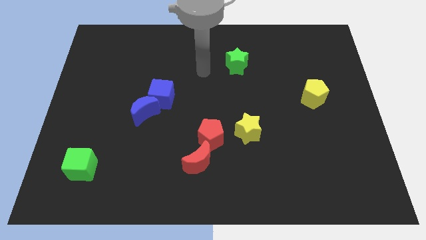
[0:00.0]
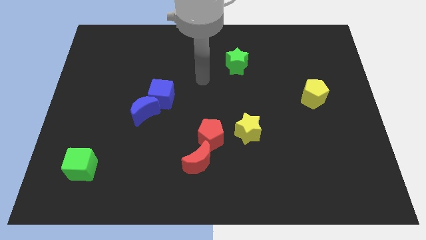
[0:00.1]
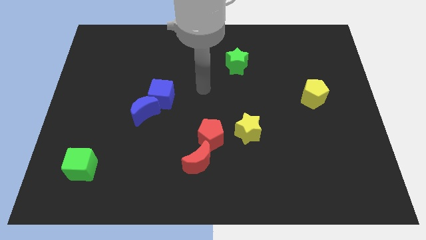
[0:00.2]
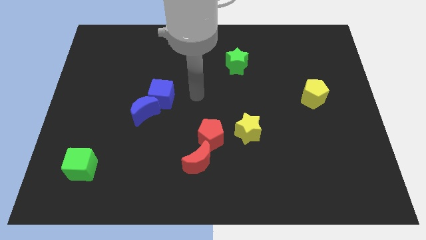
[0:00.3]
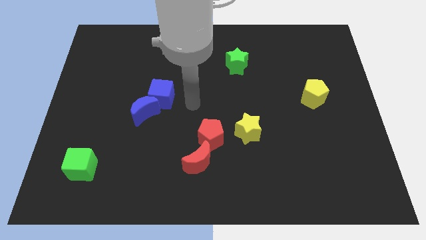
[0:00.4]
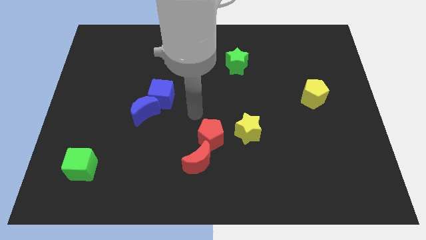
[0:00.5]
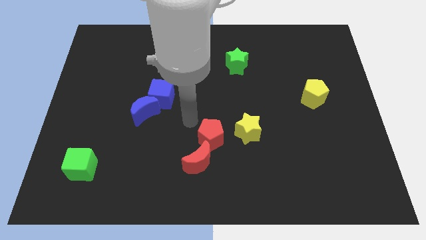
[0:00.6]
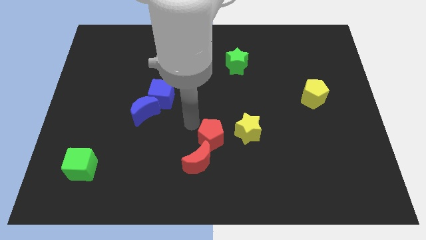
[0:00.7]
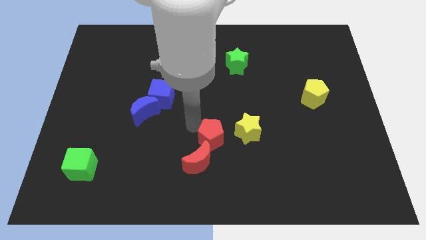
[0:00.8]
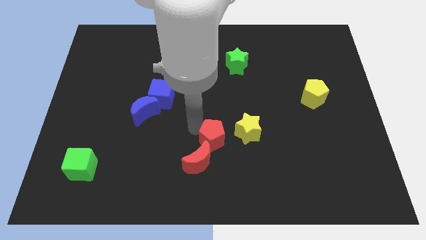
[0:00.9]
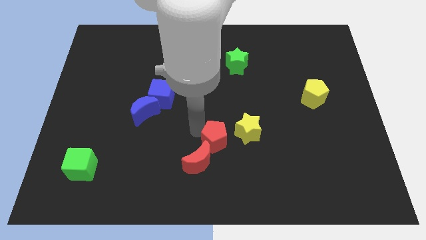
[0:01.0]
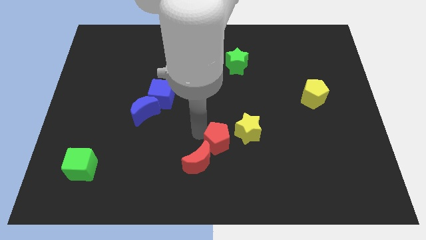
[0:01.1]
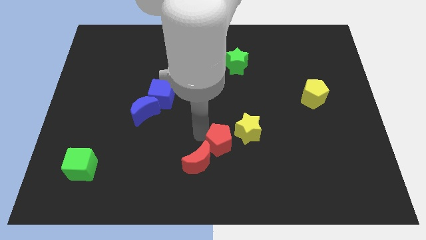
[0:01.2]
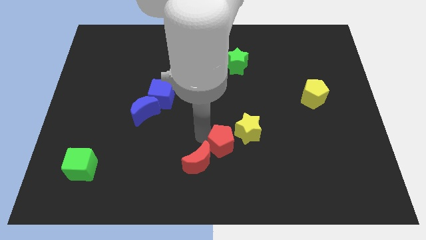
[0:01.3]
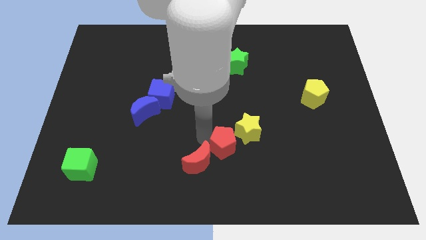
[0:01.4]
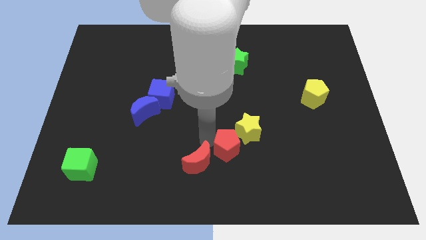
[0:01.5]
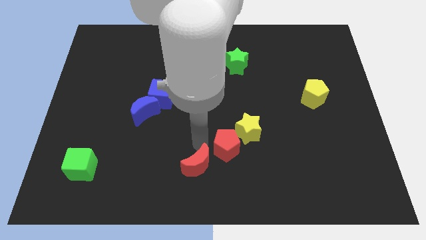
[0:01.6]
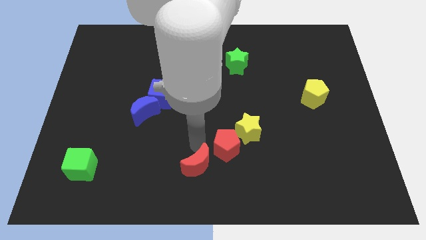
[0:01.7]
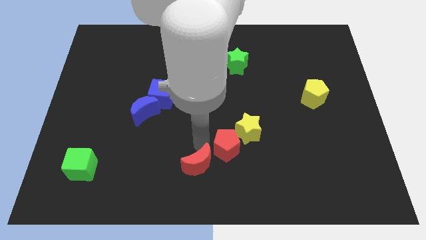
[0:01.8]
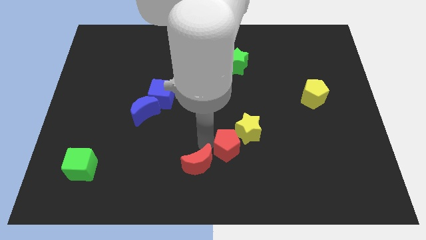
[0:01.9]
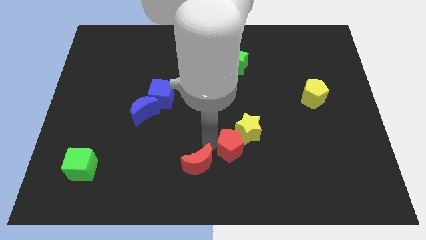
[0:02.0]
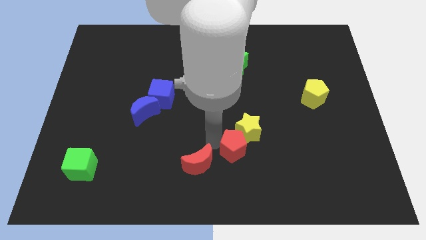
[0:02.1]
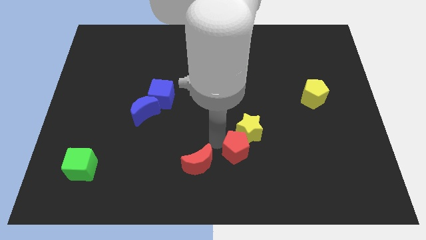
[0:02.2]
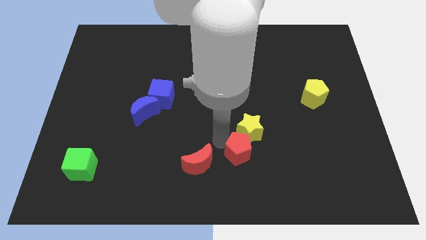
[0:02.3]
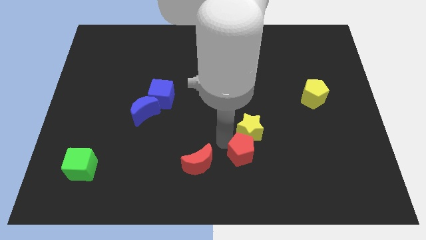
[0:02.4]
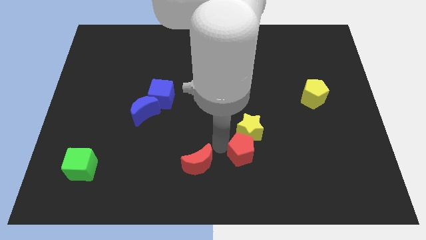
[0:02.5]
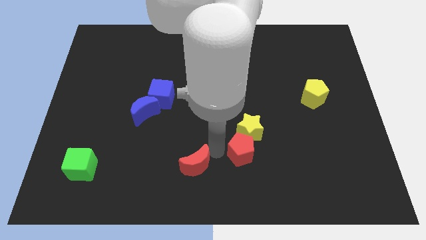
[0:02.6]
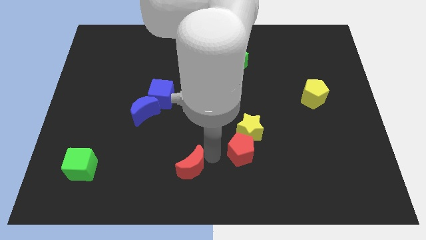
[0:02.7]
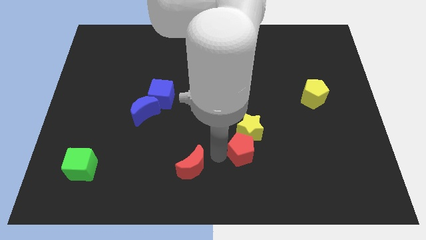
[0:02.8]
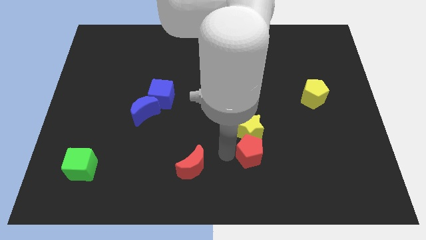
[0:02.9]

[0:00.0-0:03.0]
slightly slide the red pentagon right

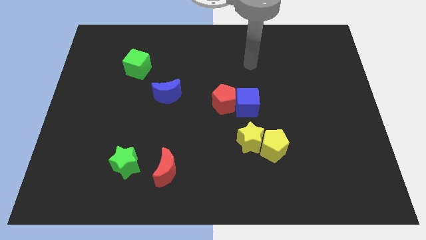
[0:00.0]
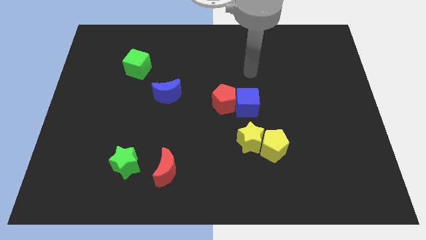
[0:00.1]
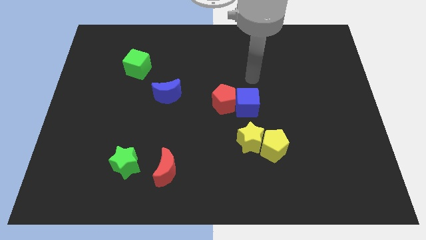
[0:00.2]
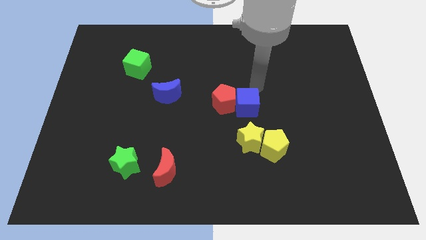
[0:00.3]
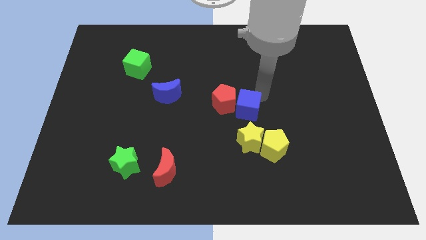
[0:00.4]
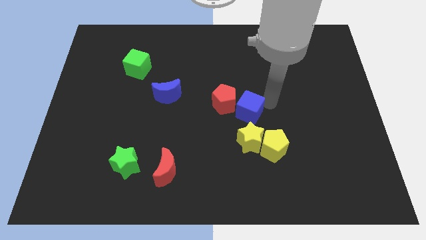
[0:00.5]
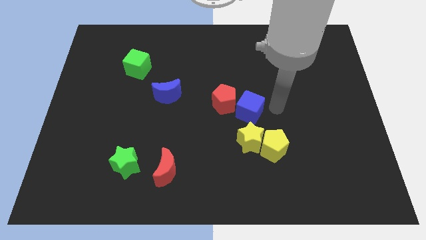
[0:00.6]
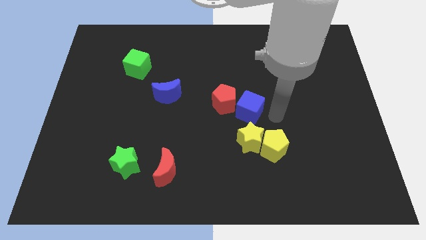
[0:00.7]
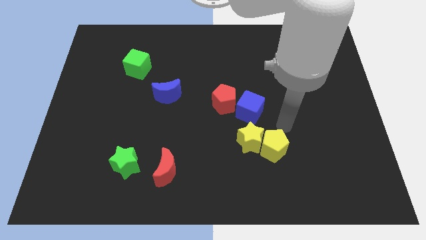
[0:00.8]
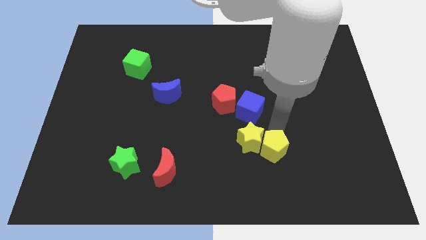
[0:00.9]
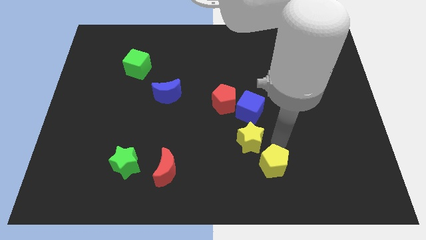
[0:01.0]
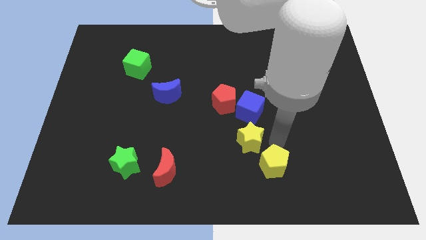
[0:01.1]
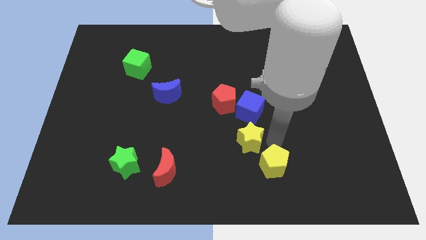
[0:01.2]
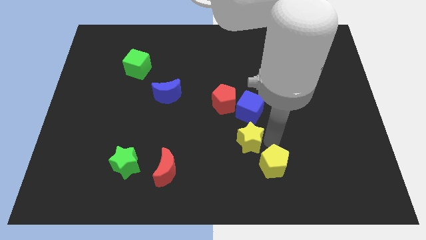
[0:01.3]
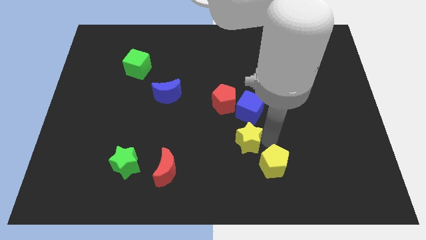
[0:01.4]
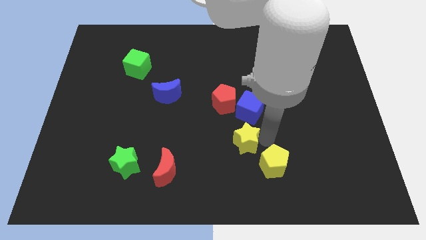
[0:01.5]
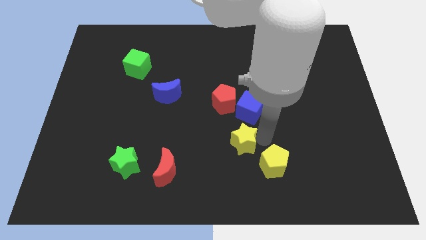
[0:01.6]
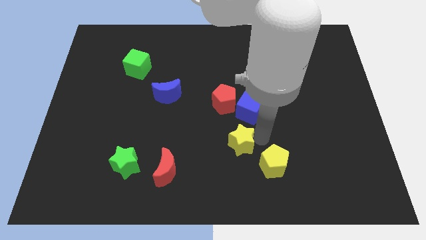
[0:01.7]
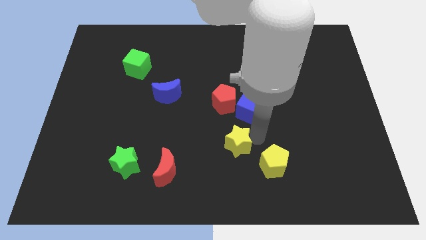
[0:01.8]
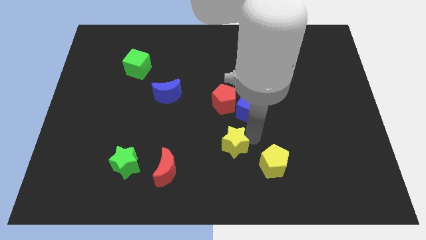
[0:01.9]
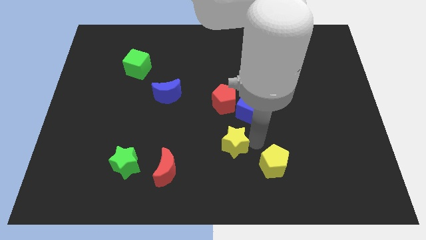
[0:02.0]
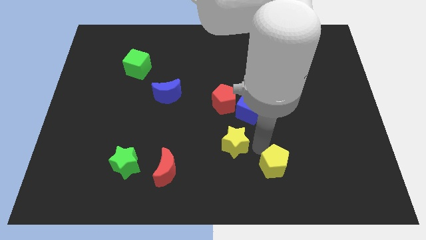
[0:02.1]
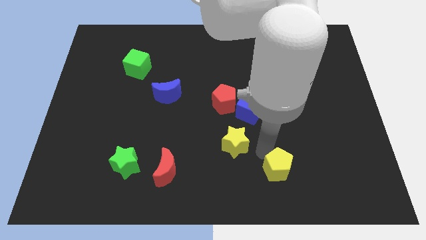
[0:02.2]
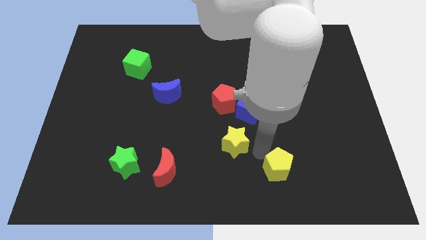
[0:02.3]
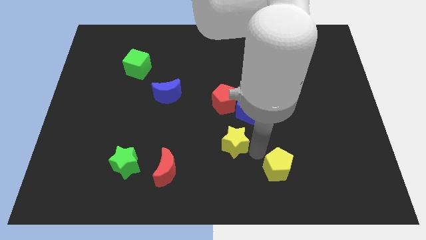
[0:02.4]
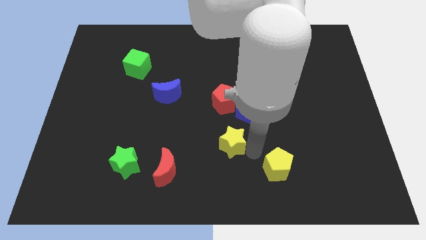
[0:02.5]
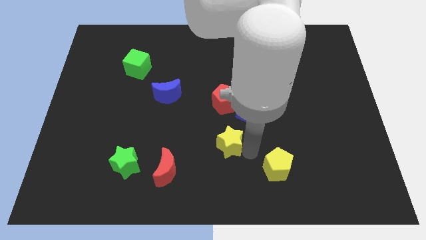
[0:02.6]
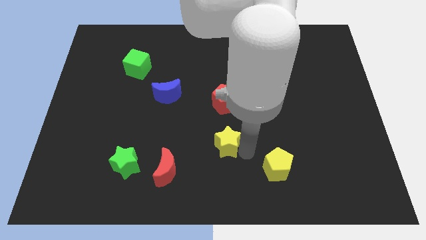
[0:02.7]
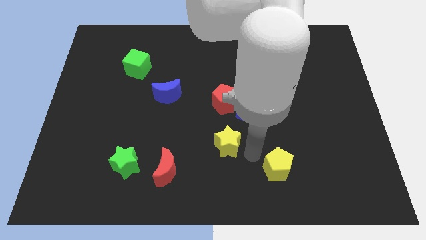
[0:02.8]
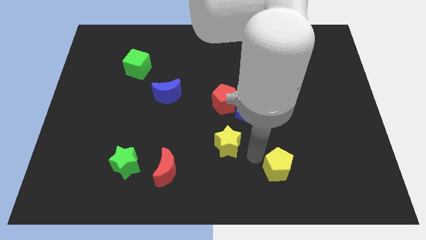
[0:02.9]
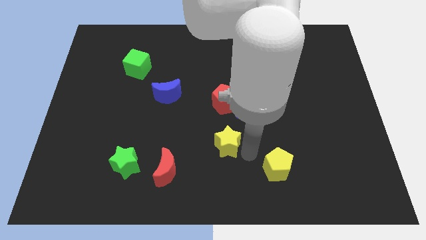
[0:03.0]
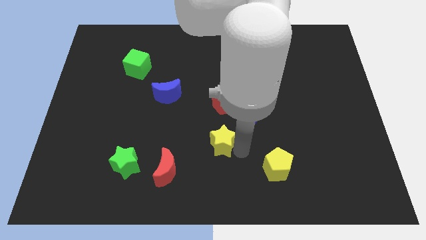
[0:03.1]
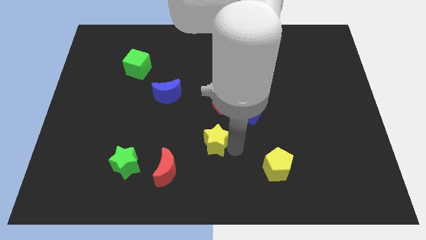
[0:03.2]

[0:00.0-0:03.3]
move the yellow star slightly to the left

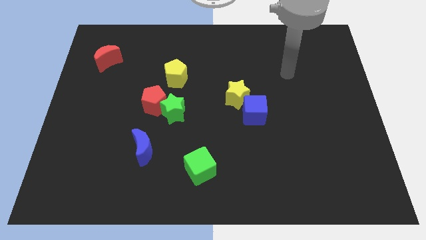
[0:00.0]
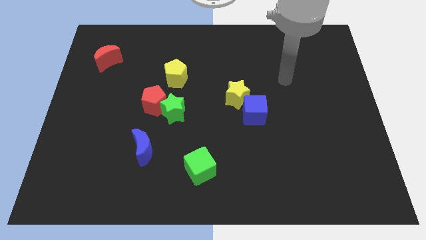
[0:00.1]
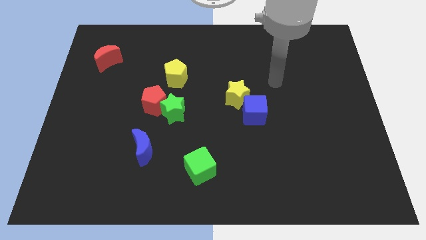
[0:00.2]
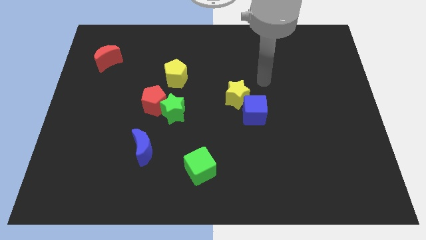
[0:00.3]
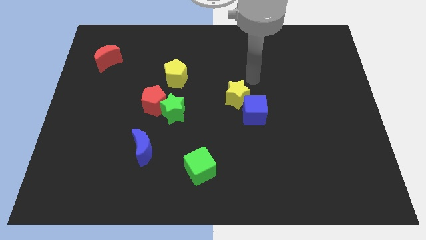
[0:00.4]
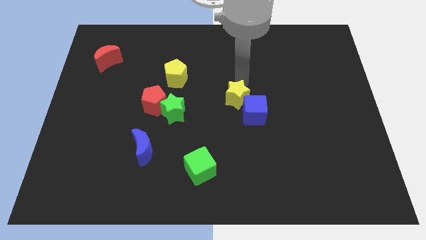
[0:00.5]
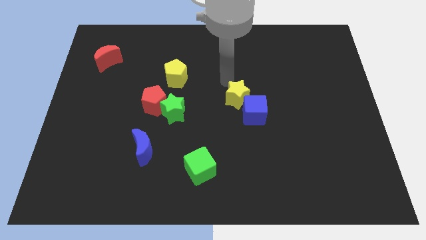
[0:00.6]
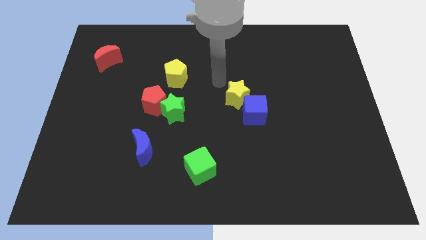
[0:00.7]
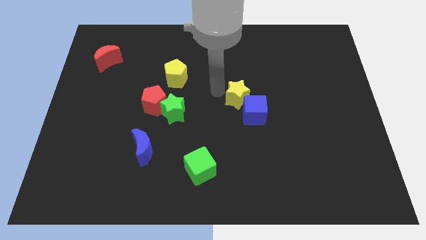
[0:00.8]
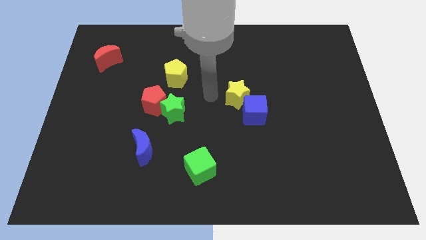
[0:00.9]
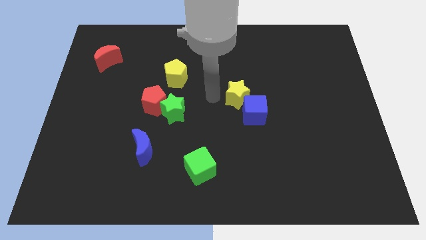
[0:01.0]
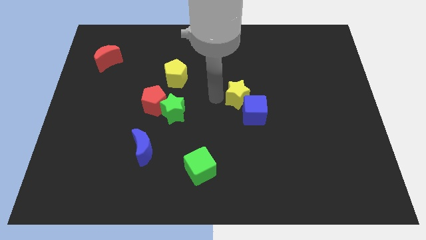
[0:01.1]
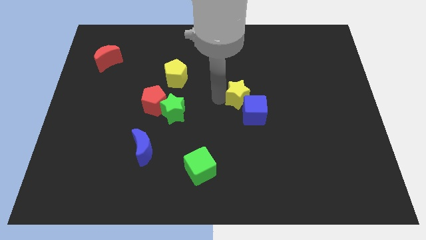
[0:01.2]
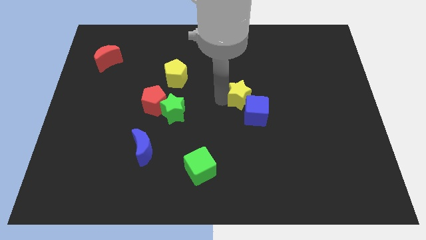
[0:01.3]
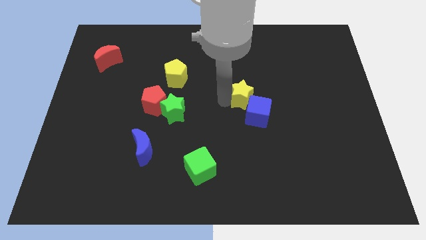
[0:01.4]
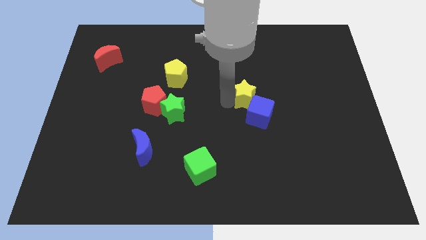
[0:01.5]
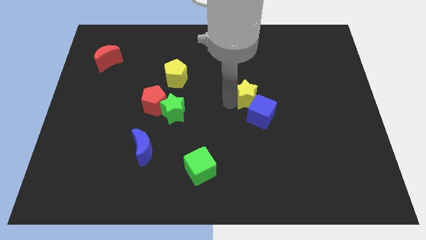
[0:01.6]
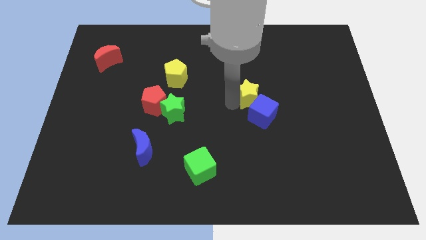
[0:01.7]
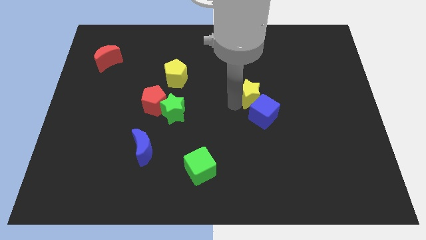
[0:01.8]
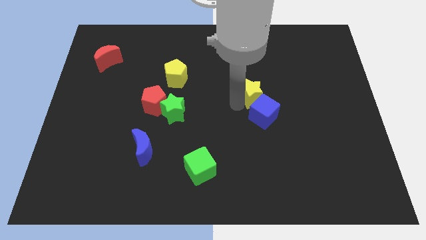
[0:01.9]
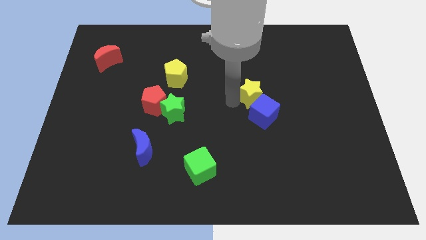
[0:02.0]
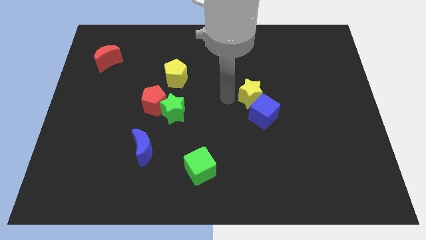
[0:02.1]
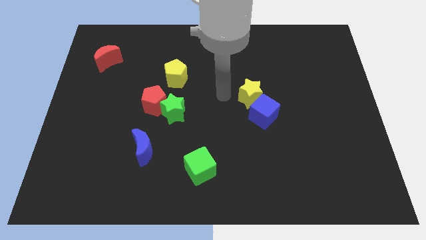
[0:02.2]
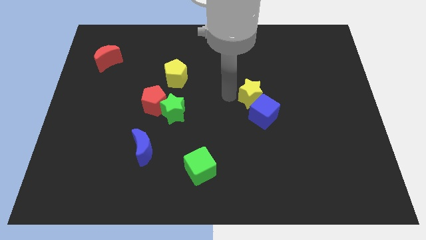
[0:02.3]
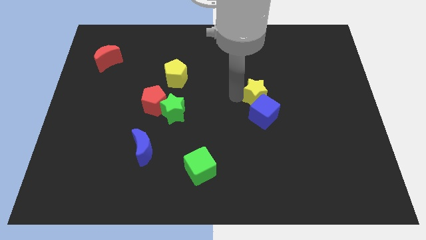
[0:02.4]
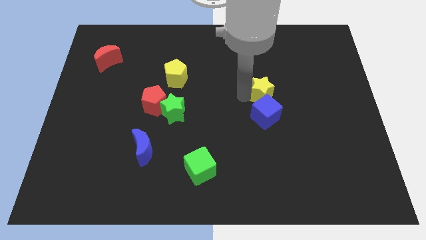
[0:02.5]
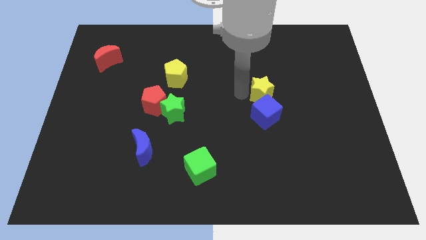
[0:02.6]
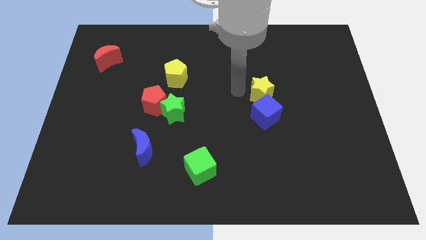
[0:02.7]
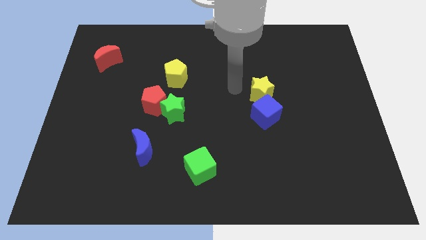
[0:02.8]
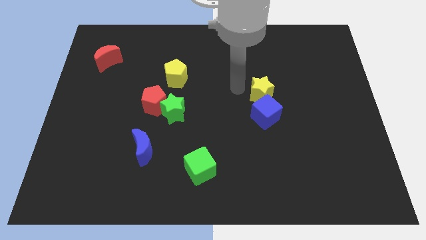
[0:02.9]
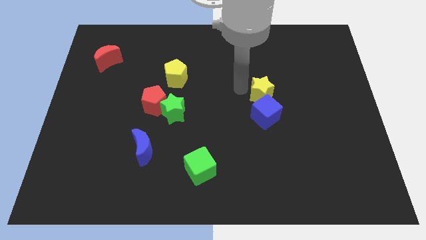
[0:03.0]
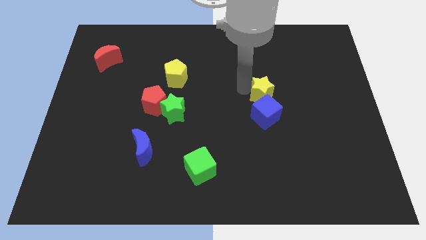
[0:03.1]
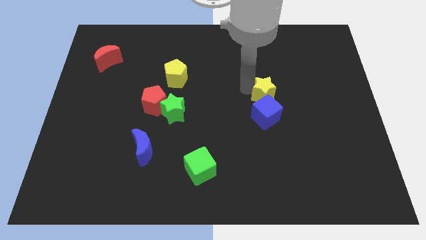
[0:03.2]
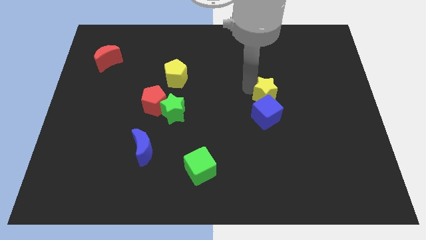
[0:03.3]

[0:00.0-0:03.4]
slightly slide the yellow star right
